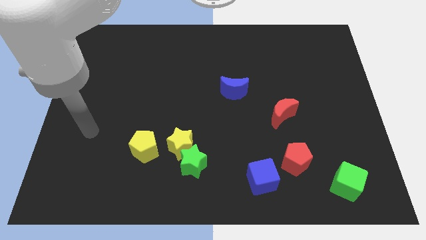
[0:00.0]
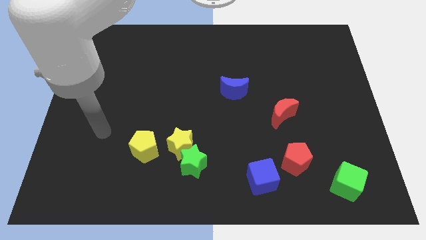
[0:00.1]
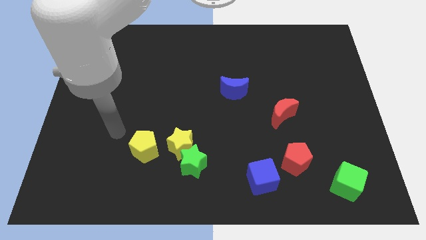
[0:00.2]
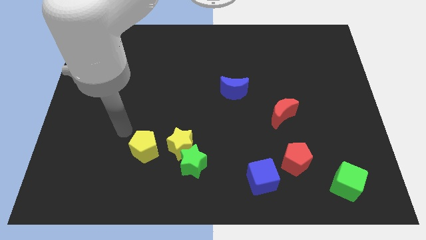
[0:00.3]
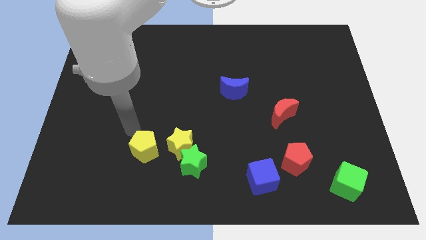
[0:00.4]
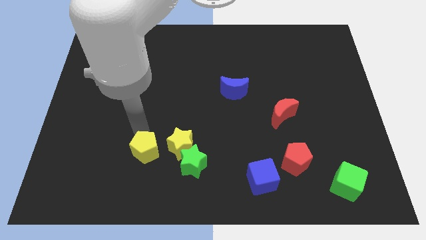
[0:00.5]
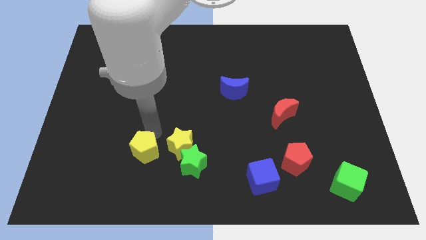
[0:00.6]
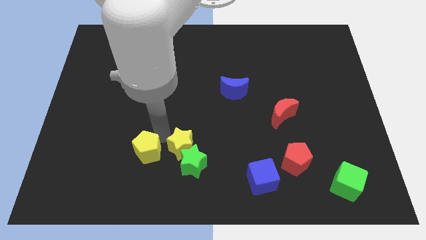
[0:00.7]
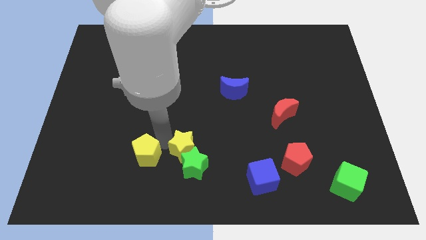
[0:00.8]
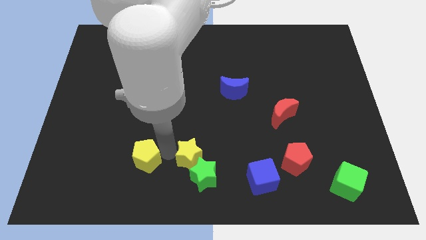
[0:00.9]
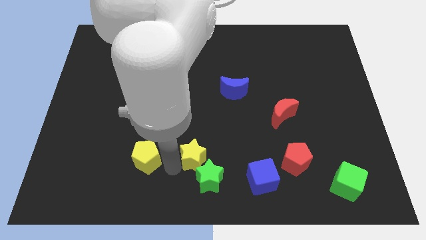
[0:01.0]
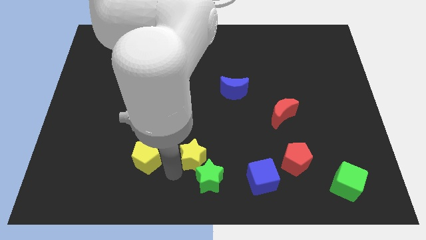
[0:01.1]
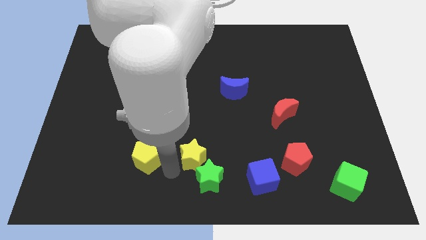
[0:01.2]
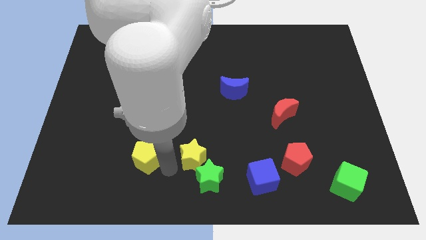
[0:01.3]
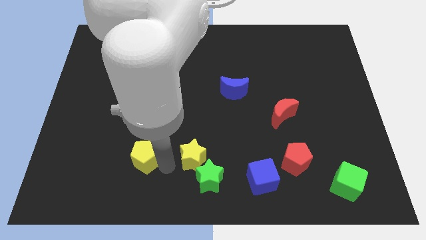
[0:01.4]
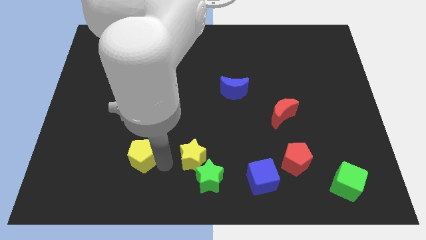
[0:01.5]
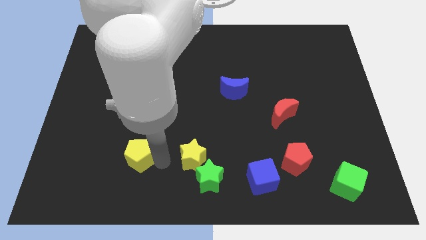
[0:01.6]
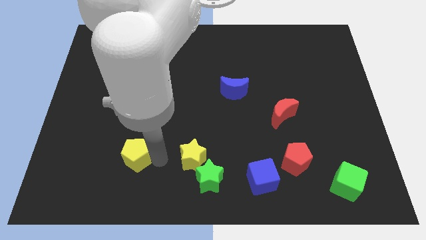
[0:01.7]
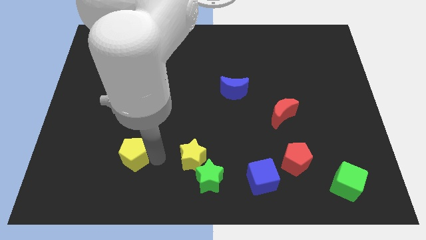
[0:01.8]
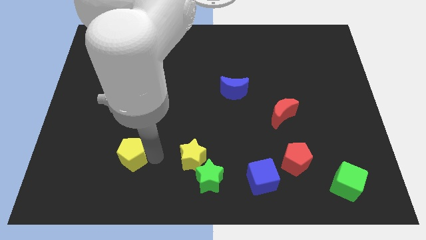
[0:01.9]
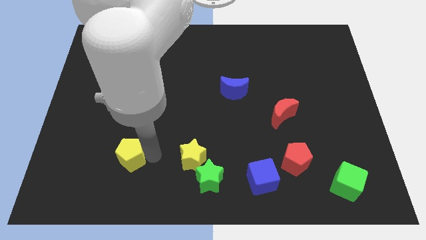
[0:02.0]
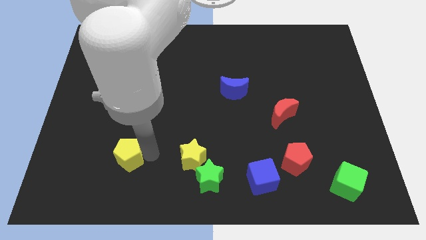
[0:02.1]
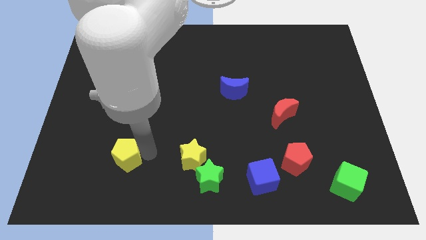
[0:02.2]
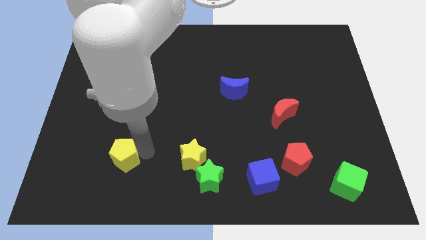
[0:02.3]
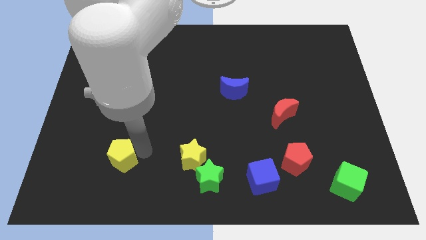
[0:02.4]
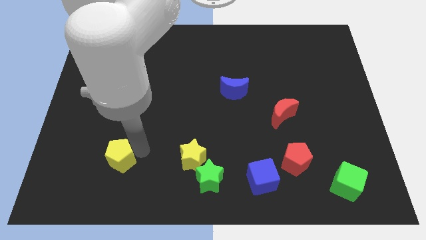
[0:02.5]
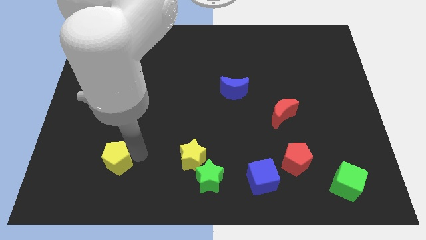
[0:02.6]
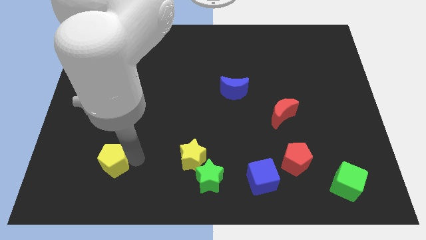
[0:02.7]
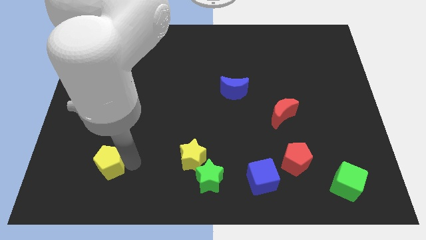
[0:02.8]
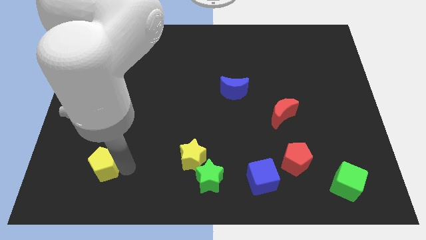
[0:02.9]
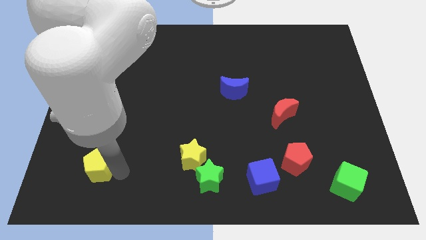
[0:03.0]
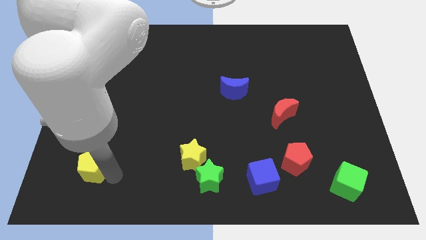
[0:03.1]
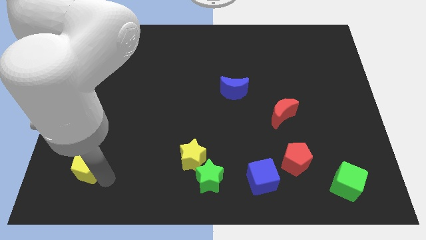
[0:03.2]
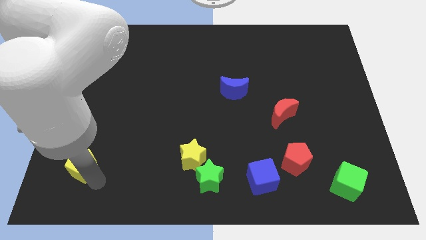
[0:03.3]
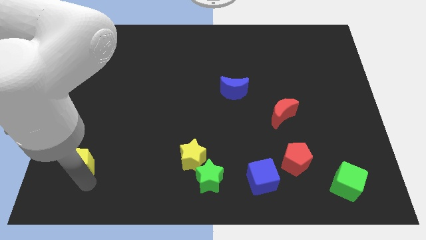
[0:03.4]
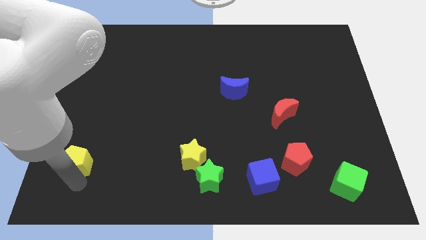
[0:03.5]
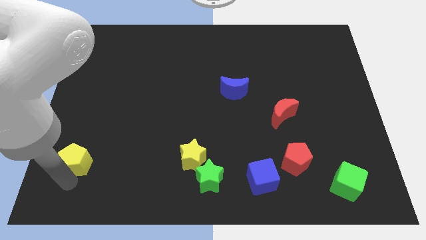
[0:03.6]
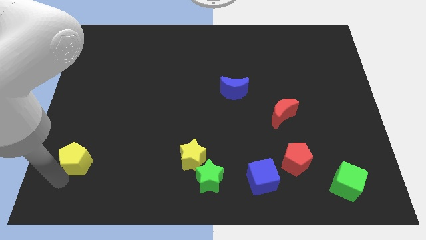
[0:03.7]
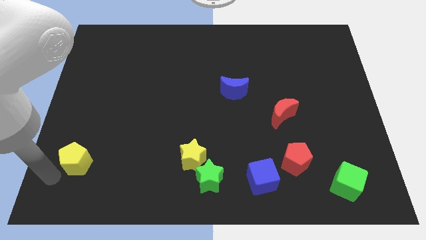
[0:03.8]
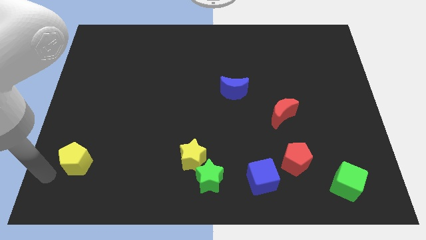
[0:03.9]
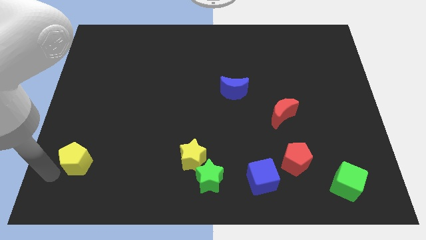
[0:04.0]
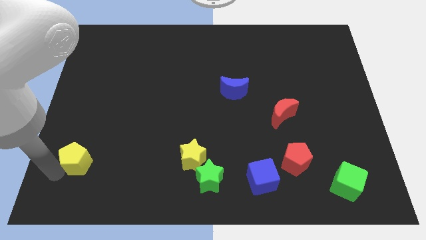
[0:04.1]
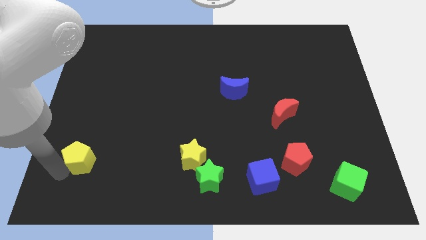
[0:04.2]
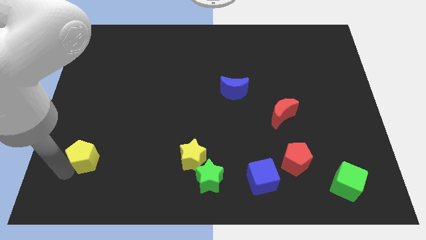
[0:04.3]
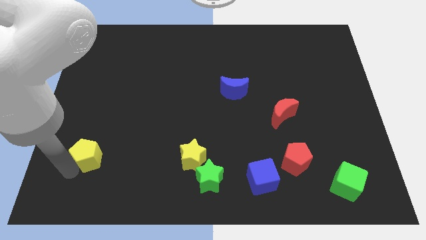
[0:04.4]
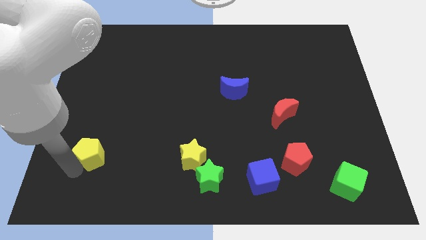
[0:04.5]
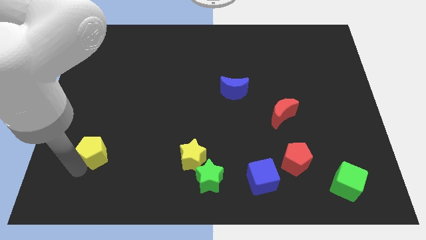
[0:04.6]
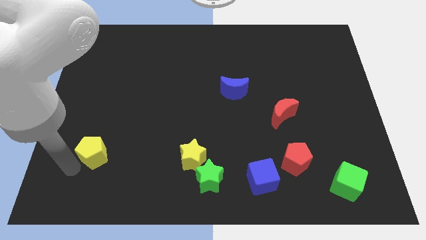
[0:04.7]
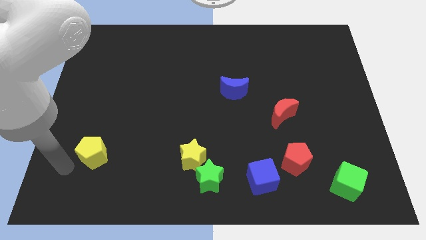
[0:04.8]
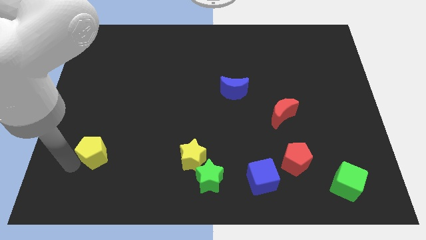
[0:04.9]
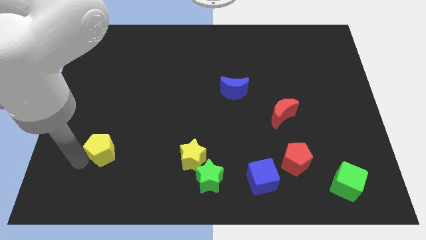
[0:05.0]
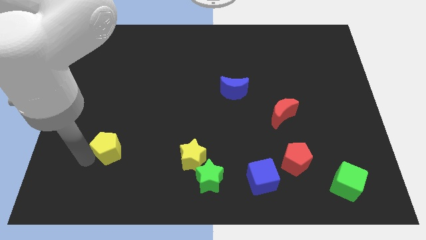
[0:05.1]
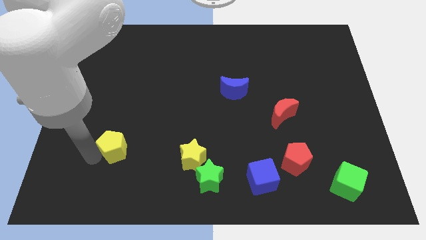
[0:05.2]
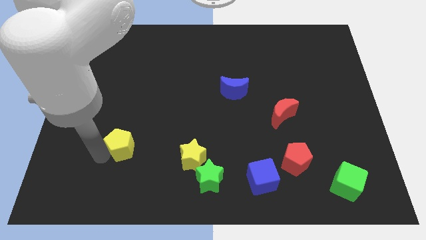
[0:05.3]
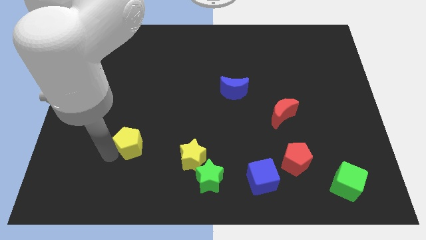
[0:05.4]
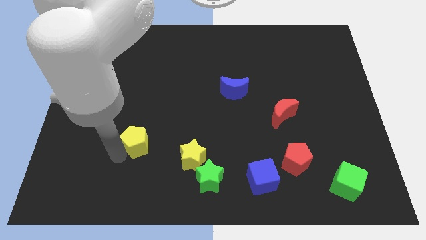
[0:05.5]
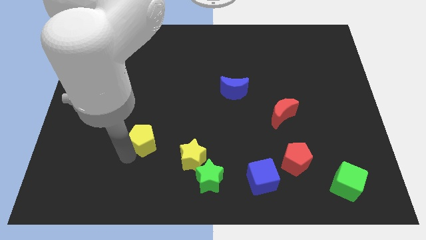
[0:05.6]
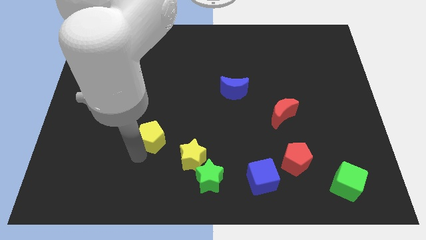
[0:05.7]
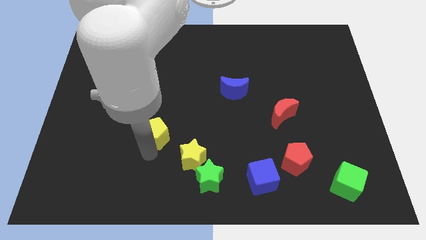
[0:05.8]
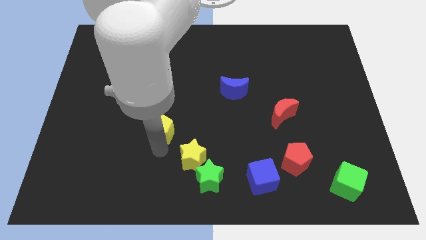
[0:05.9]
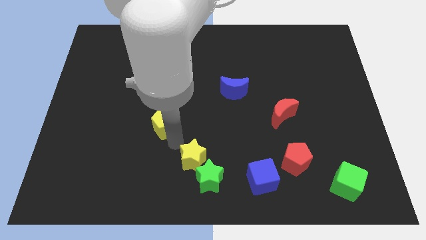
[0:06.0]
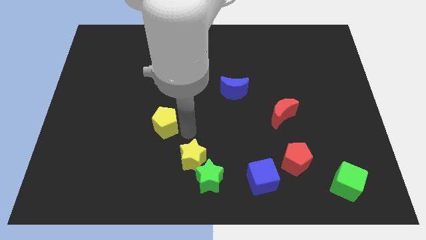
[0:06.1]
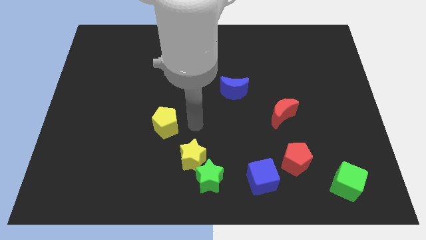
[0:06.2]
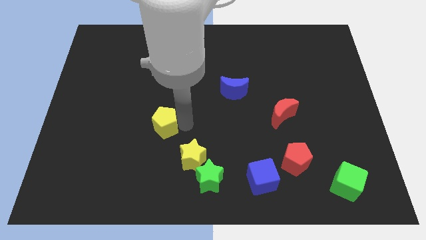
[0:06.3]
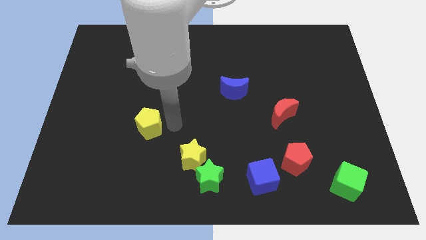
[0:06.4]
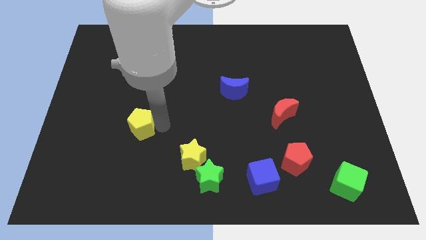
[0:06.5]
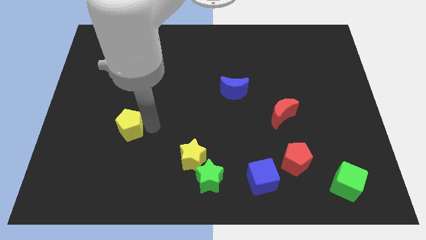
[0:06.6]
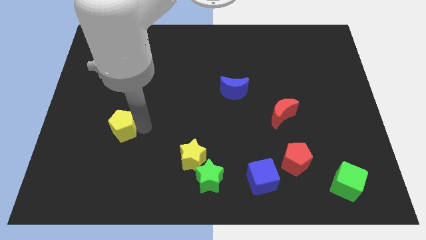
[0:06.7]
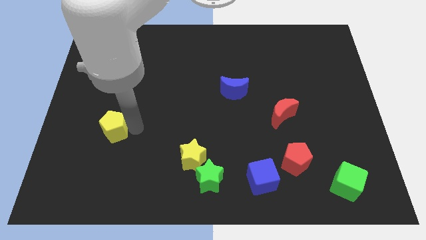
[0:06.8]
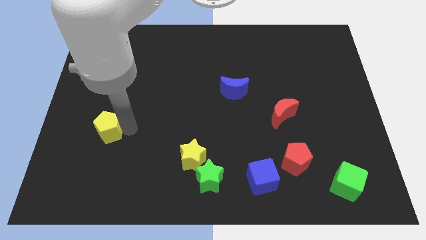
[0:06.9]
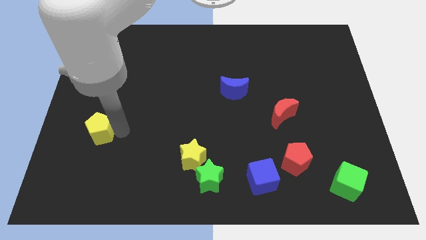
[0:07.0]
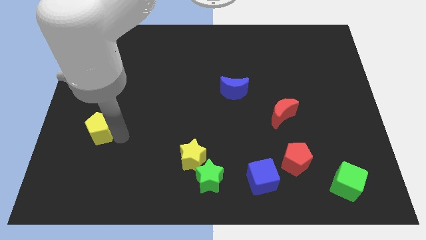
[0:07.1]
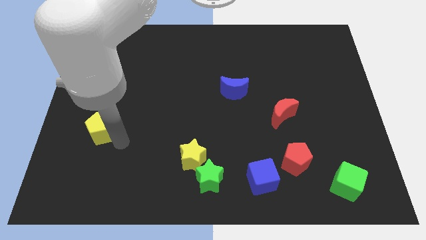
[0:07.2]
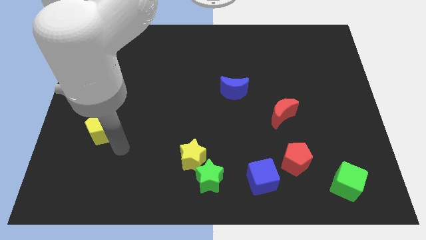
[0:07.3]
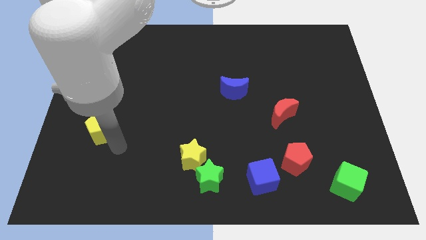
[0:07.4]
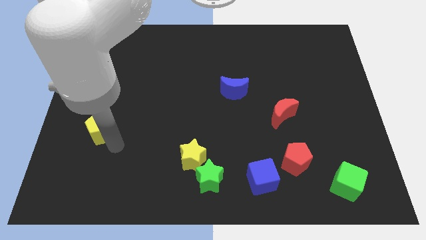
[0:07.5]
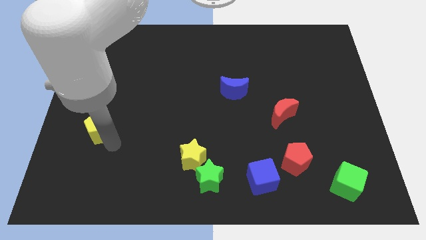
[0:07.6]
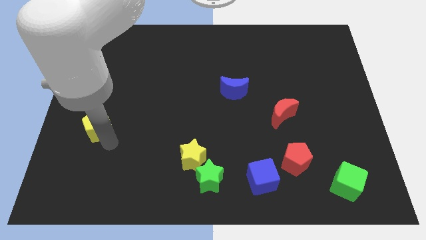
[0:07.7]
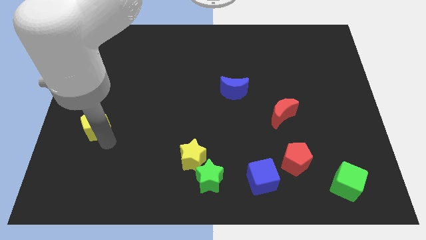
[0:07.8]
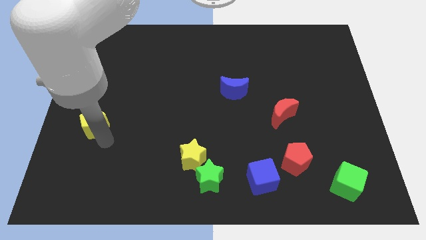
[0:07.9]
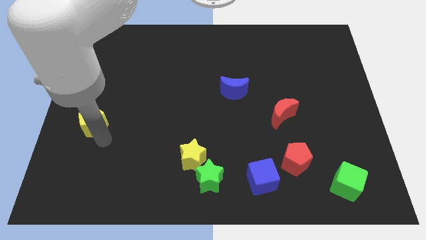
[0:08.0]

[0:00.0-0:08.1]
move the yellow pentagon to the left side
